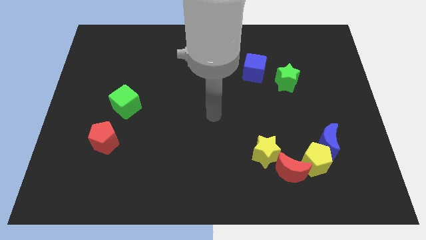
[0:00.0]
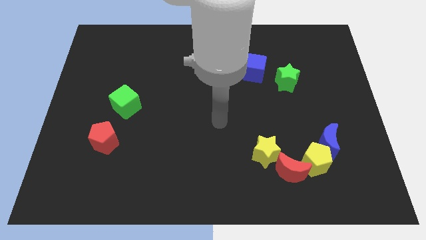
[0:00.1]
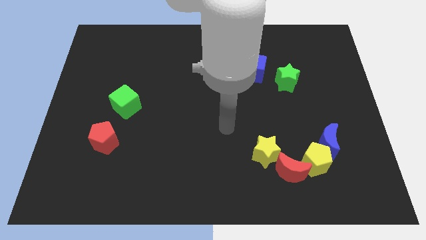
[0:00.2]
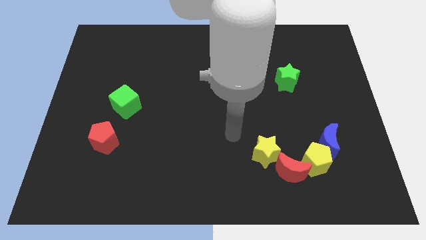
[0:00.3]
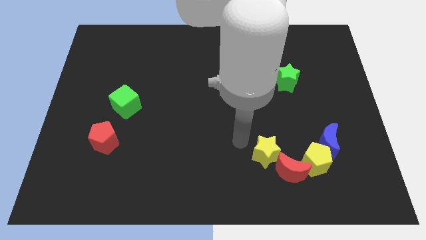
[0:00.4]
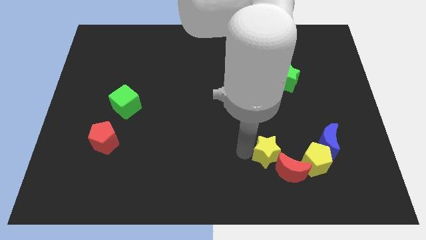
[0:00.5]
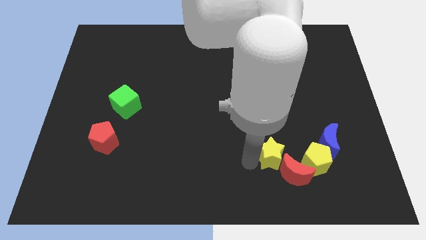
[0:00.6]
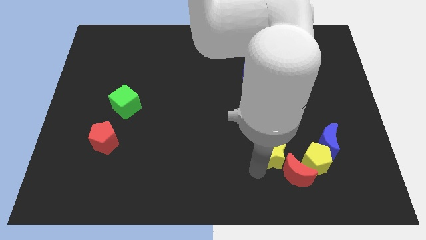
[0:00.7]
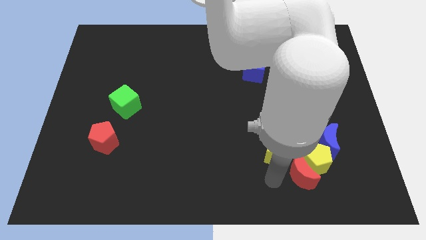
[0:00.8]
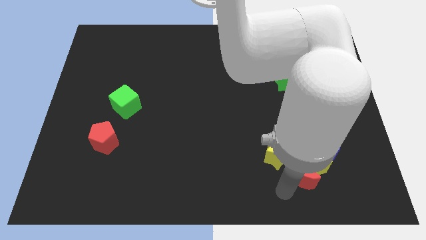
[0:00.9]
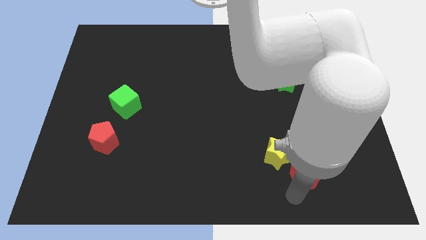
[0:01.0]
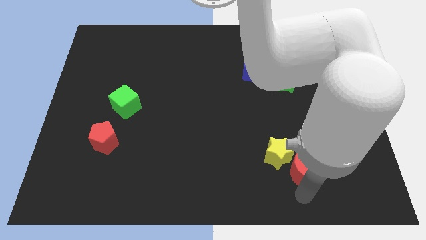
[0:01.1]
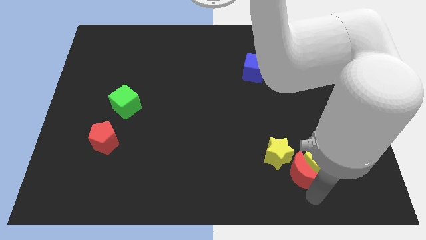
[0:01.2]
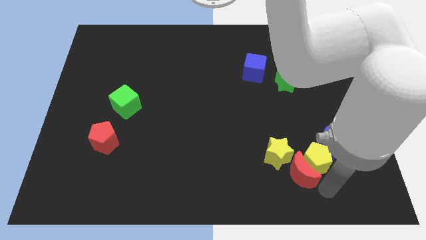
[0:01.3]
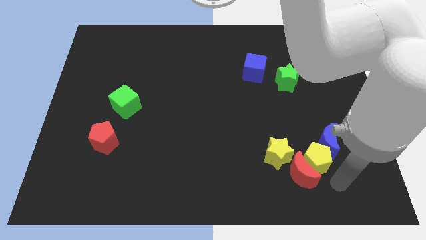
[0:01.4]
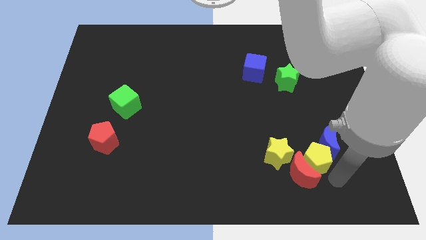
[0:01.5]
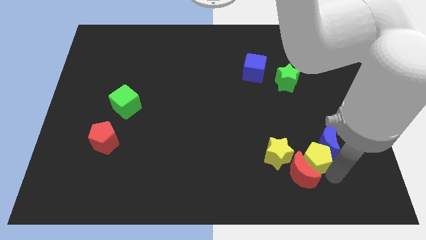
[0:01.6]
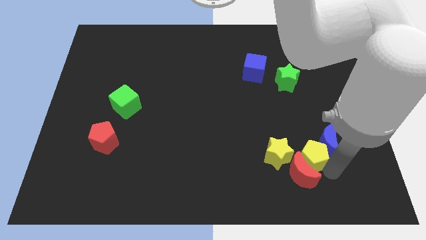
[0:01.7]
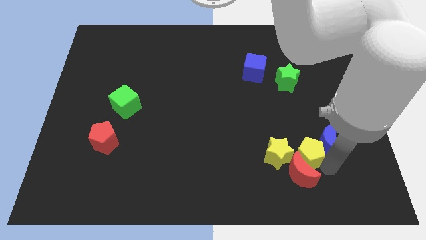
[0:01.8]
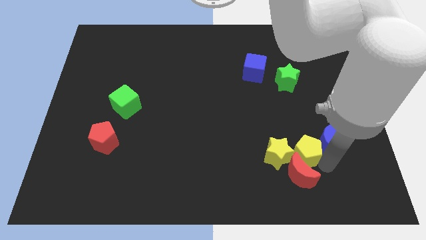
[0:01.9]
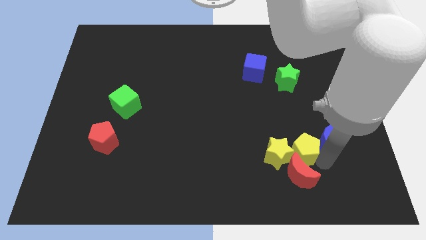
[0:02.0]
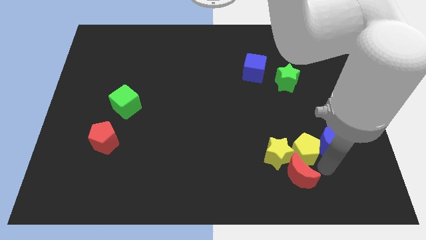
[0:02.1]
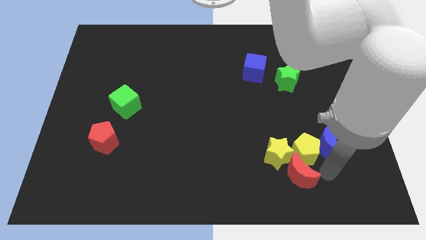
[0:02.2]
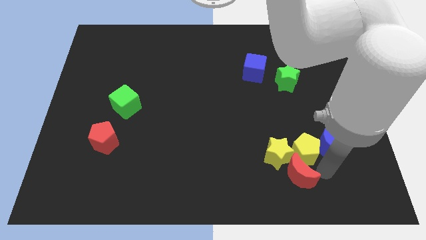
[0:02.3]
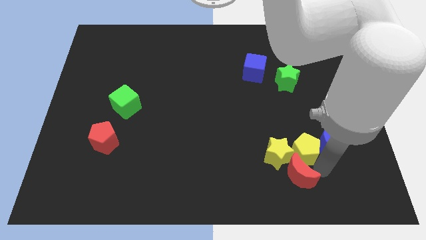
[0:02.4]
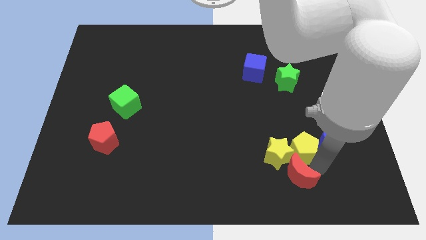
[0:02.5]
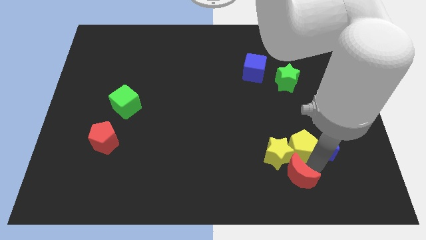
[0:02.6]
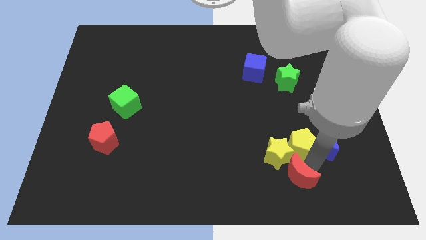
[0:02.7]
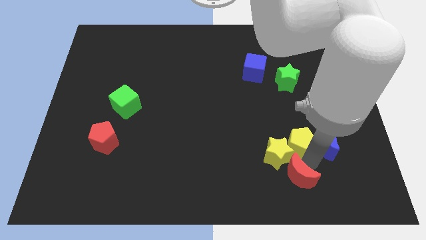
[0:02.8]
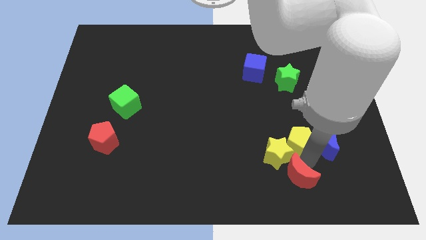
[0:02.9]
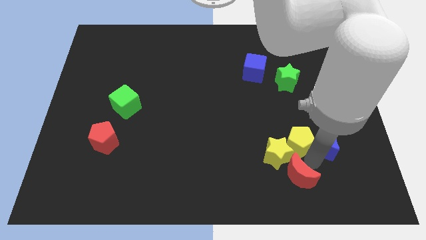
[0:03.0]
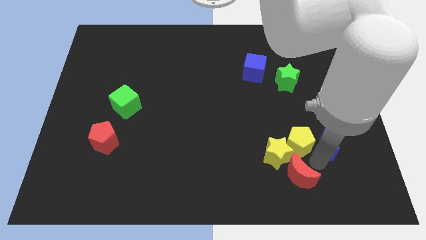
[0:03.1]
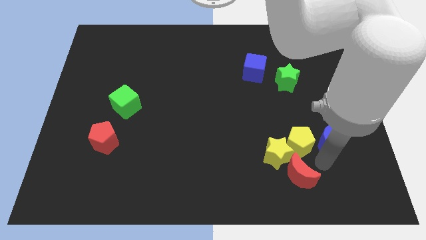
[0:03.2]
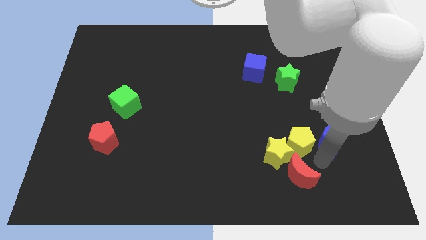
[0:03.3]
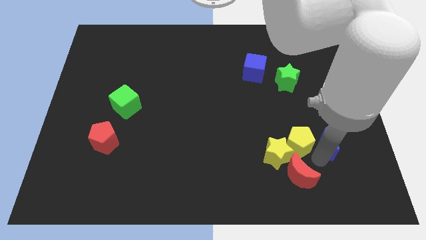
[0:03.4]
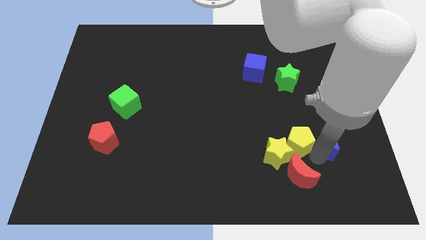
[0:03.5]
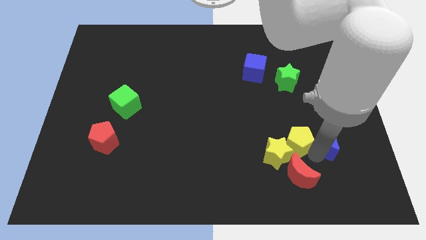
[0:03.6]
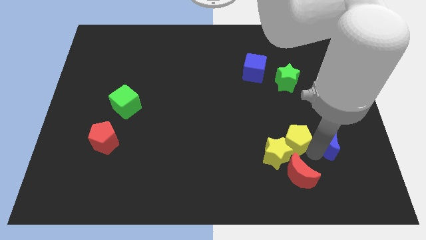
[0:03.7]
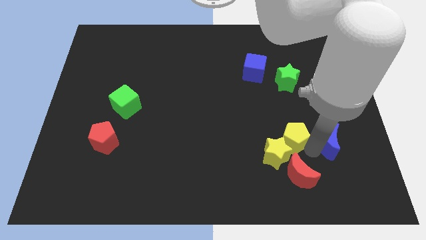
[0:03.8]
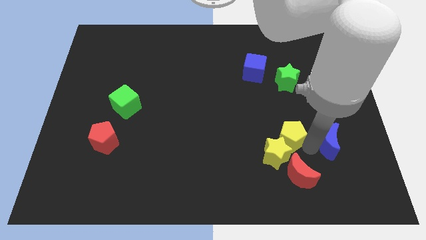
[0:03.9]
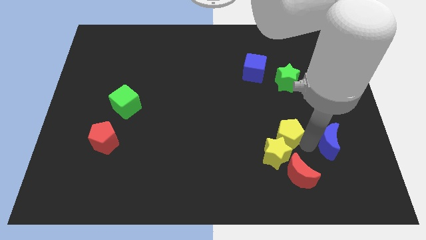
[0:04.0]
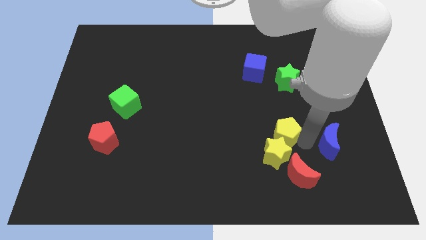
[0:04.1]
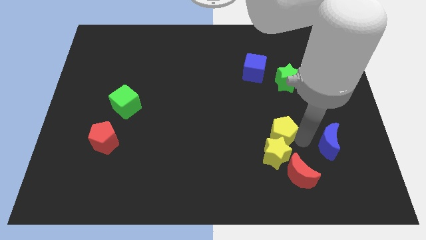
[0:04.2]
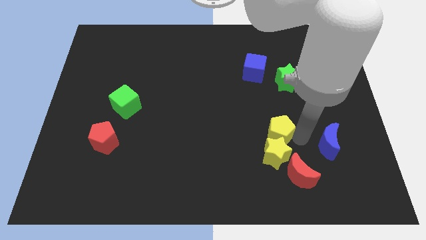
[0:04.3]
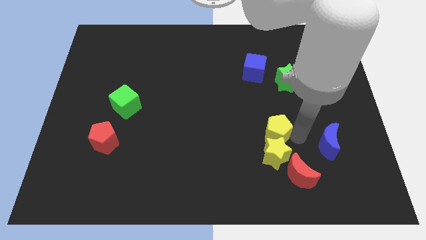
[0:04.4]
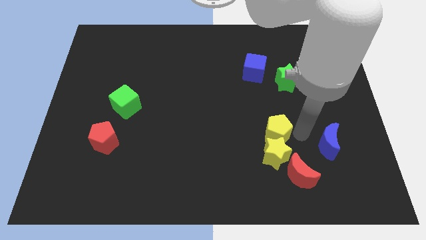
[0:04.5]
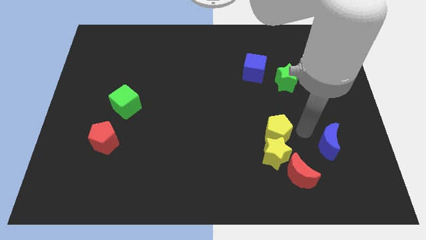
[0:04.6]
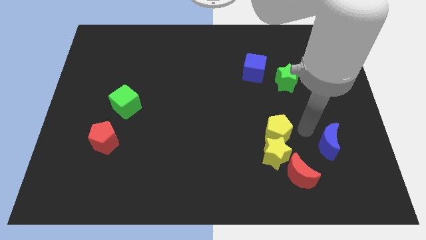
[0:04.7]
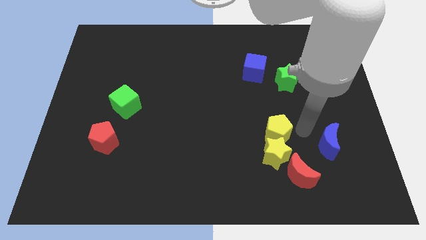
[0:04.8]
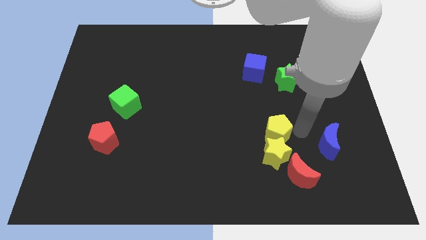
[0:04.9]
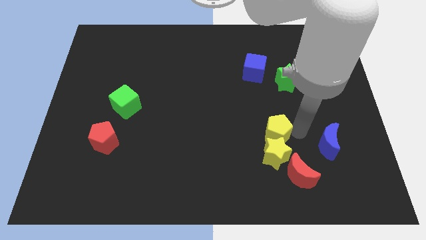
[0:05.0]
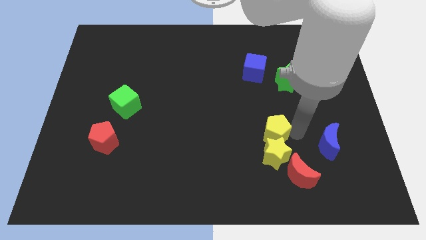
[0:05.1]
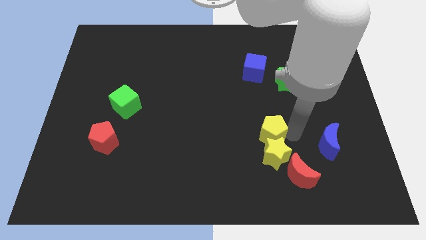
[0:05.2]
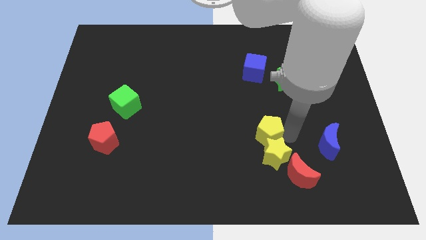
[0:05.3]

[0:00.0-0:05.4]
move the yellow pentagon somewhat left

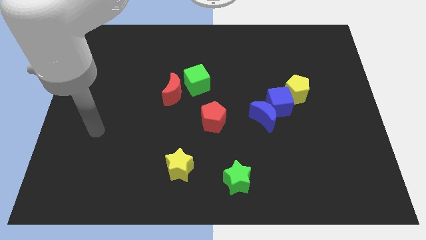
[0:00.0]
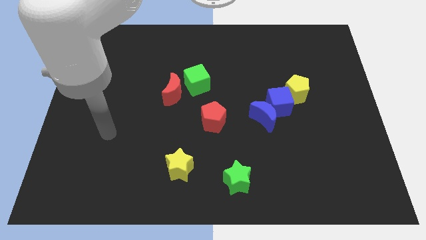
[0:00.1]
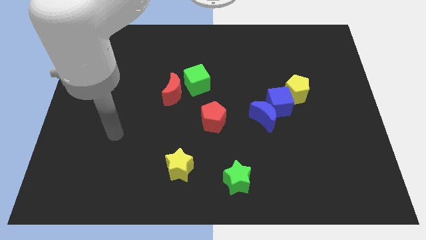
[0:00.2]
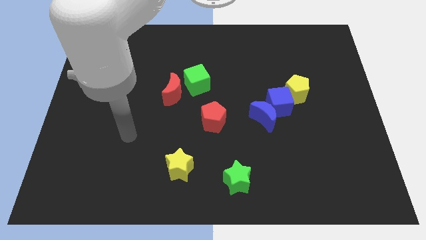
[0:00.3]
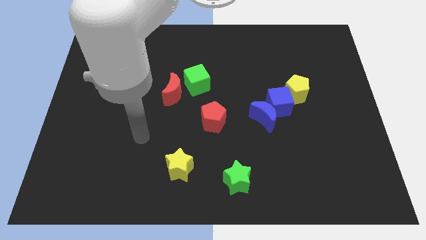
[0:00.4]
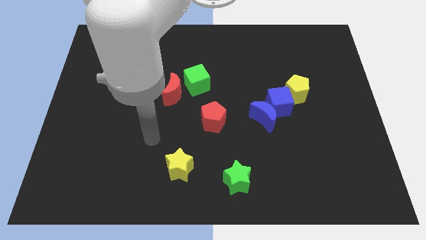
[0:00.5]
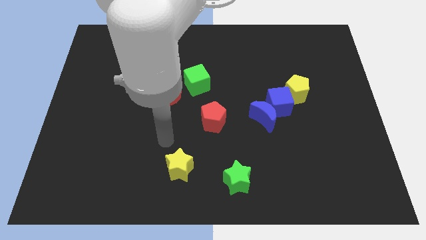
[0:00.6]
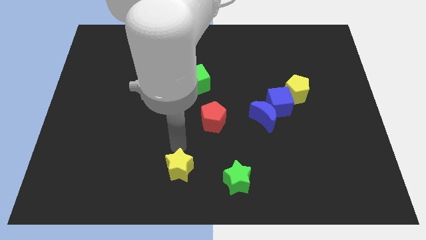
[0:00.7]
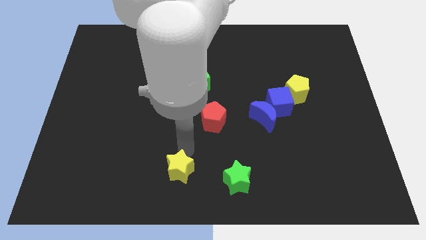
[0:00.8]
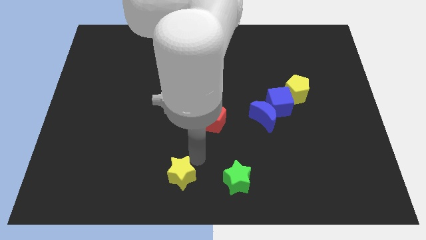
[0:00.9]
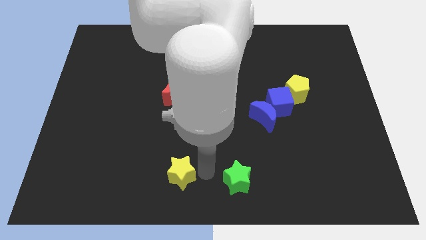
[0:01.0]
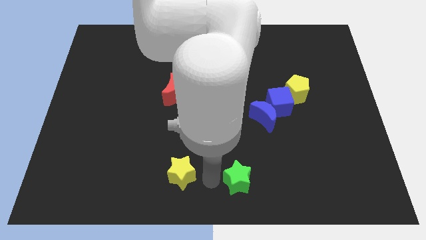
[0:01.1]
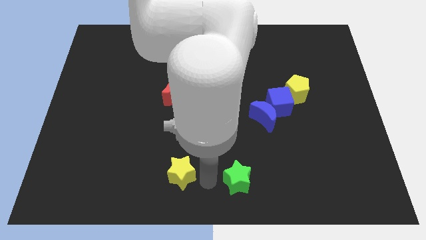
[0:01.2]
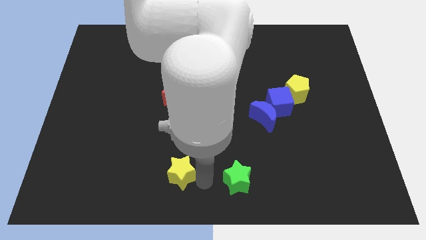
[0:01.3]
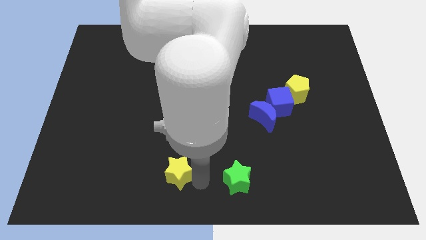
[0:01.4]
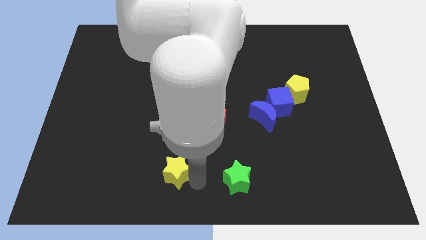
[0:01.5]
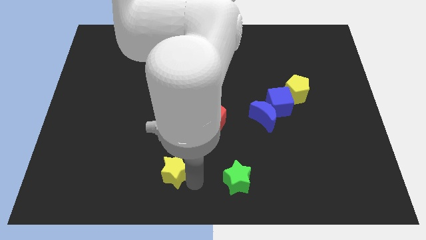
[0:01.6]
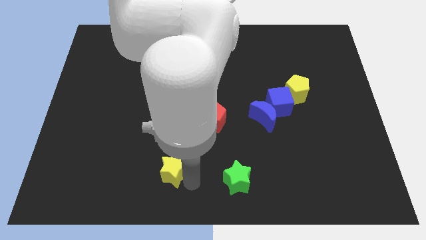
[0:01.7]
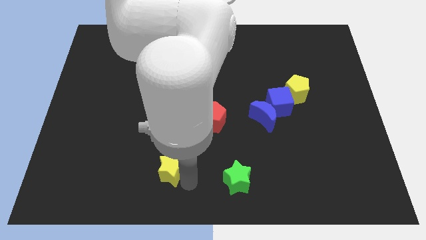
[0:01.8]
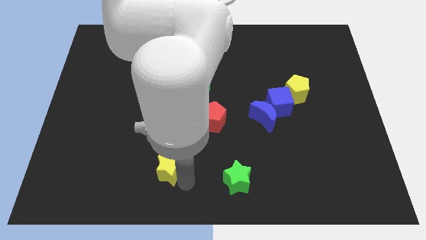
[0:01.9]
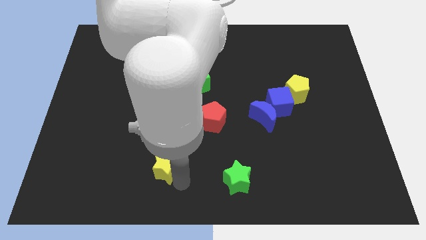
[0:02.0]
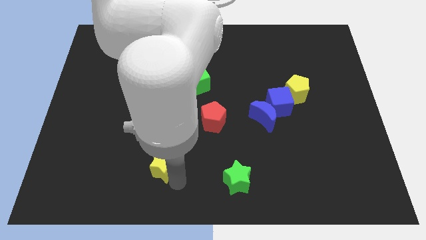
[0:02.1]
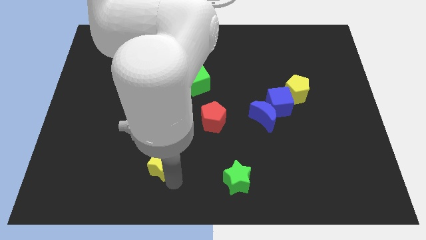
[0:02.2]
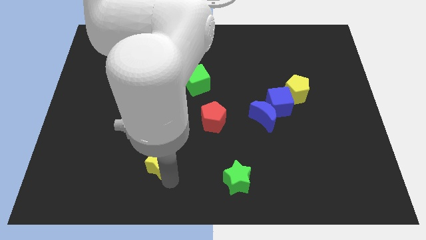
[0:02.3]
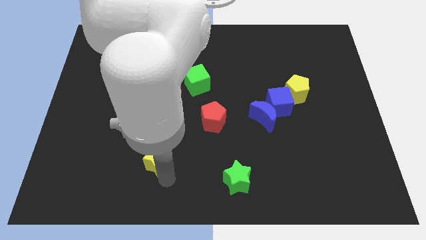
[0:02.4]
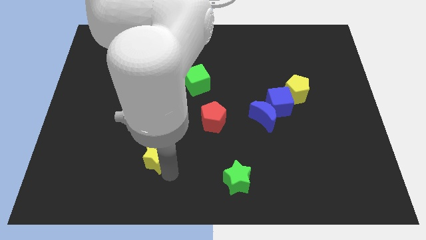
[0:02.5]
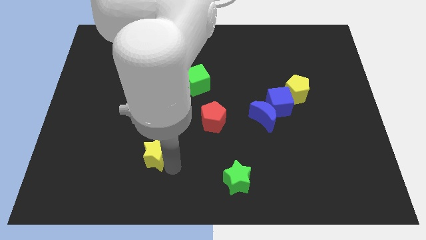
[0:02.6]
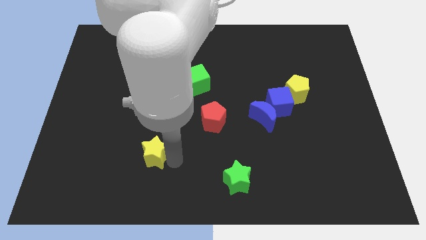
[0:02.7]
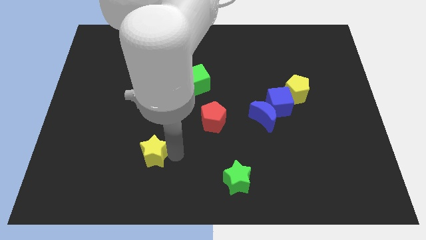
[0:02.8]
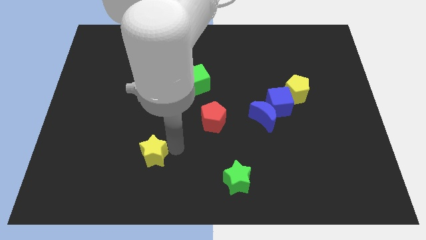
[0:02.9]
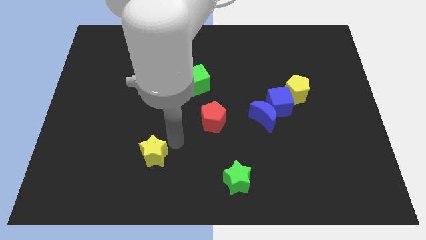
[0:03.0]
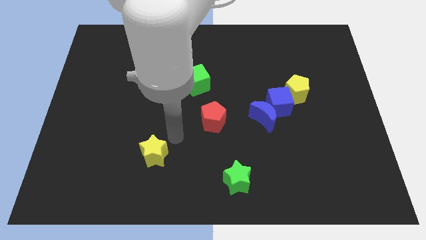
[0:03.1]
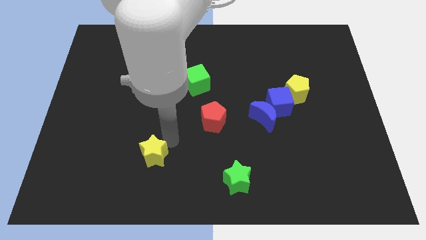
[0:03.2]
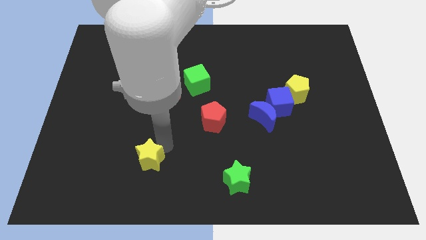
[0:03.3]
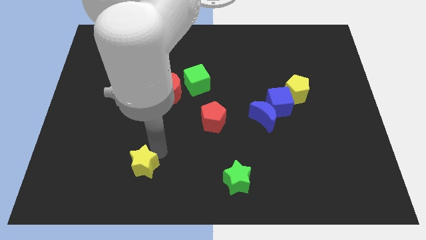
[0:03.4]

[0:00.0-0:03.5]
move the yellow star left slightly
